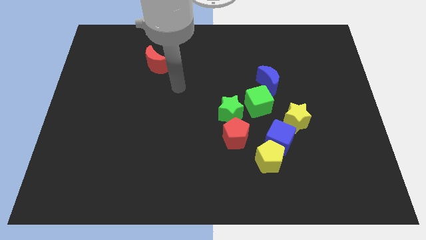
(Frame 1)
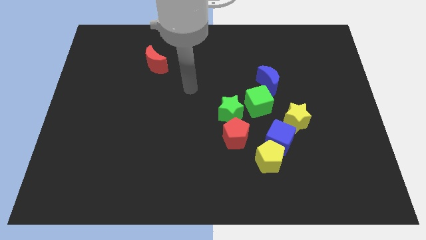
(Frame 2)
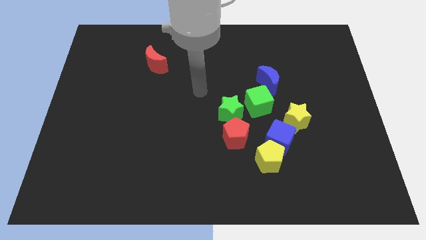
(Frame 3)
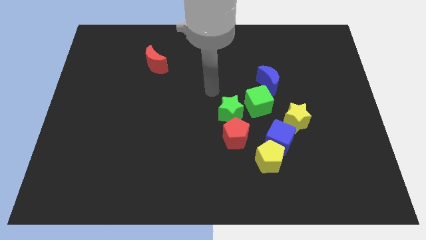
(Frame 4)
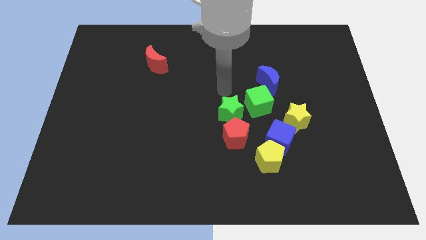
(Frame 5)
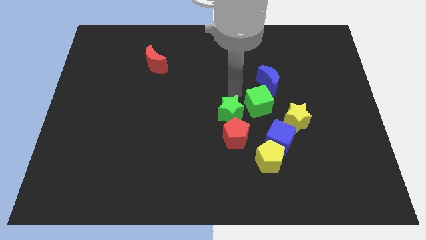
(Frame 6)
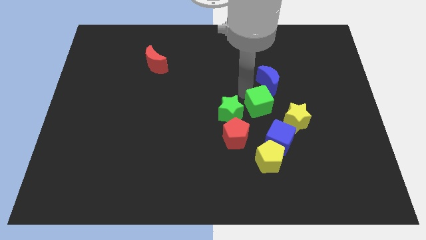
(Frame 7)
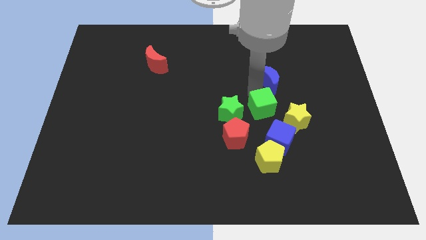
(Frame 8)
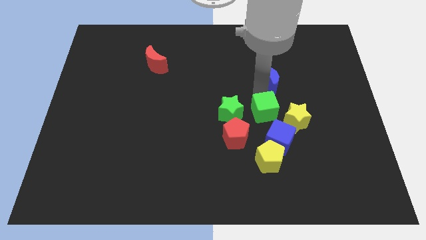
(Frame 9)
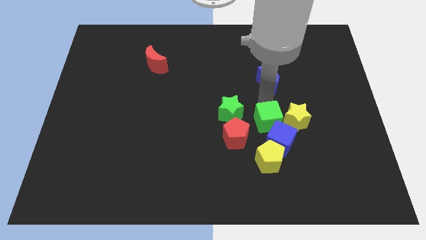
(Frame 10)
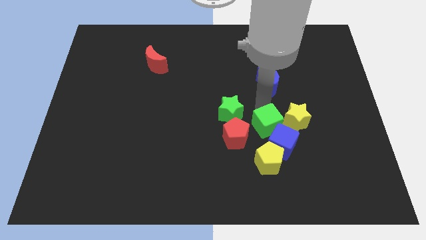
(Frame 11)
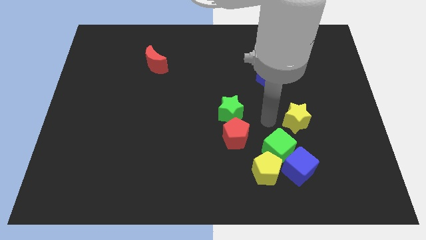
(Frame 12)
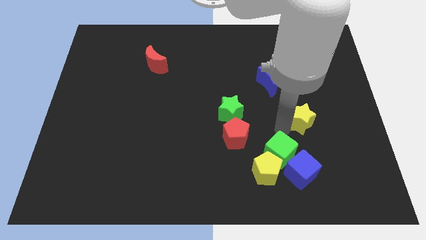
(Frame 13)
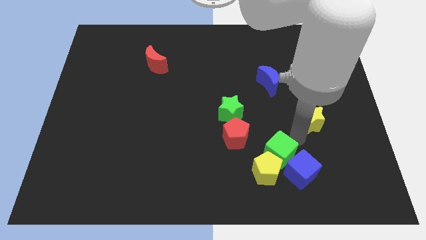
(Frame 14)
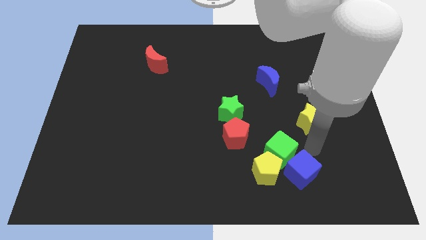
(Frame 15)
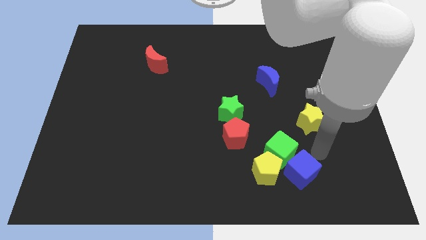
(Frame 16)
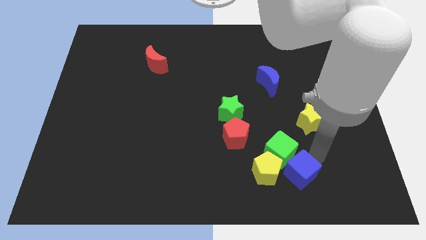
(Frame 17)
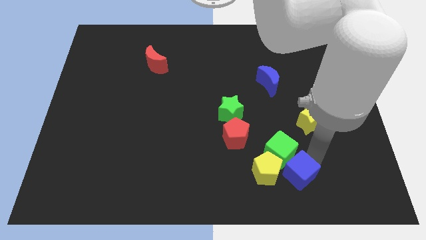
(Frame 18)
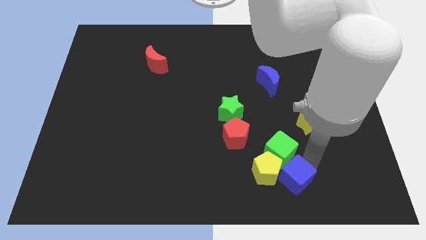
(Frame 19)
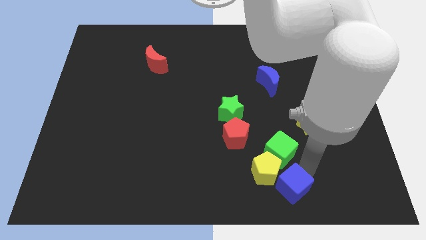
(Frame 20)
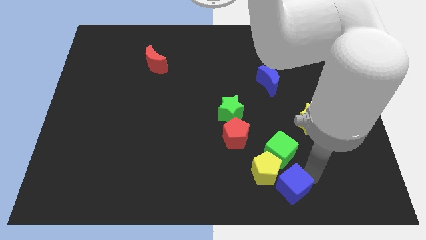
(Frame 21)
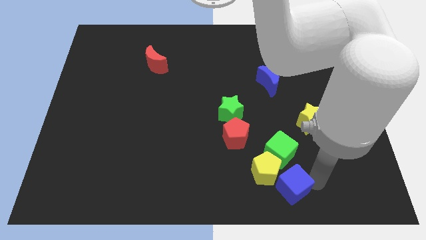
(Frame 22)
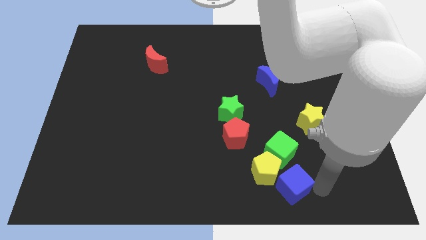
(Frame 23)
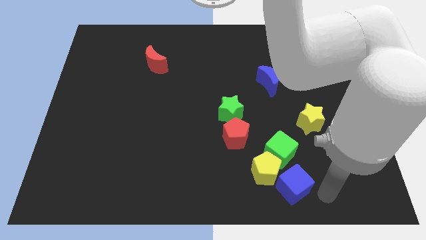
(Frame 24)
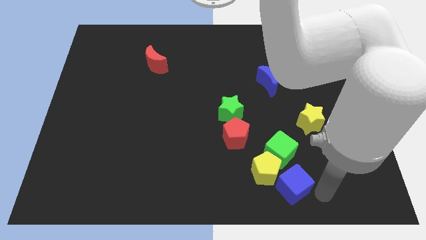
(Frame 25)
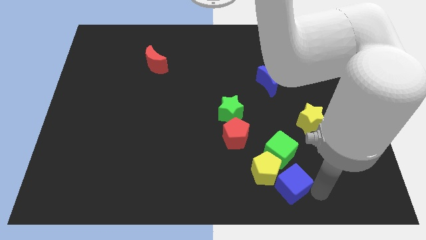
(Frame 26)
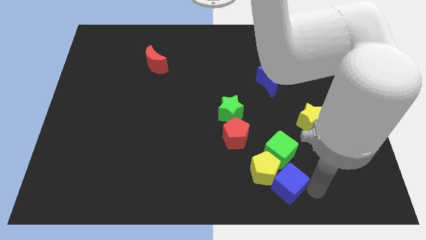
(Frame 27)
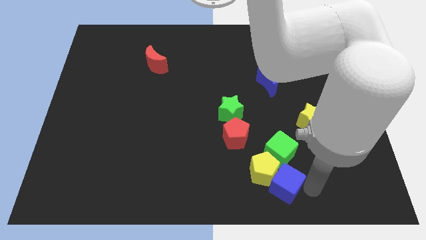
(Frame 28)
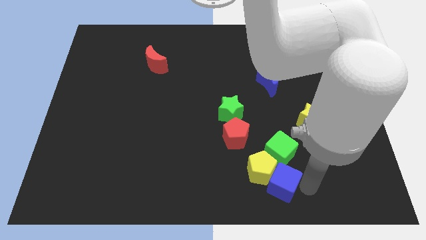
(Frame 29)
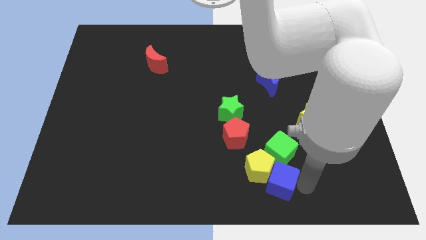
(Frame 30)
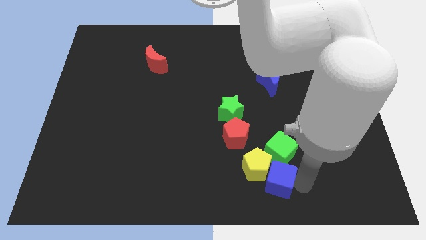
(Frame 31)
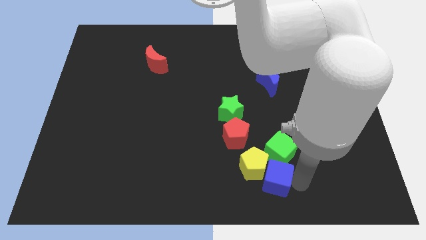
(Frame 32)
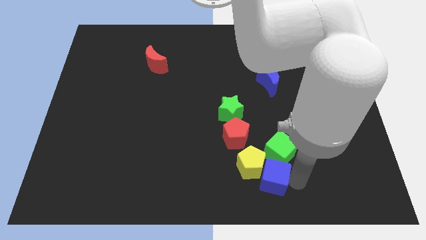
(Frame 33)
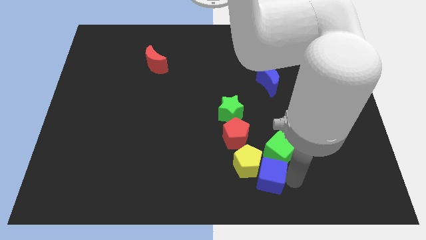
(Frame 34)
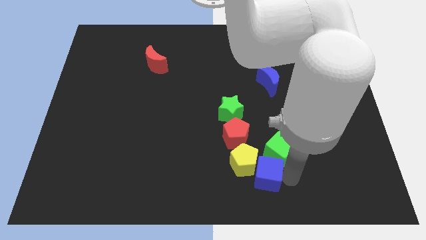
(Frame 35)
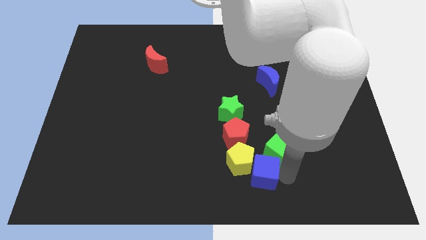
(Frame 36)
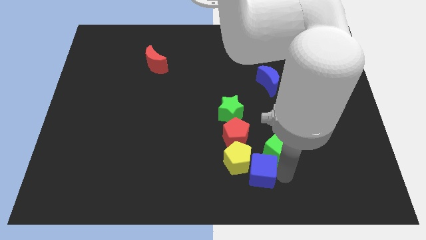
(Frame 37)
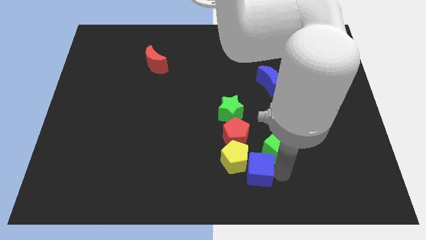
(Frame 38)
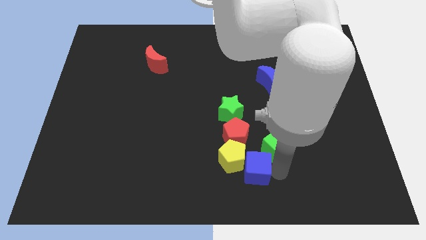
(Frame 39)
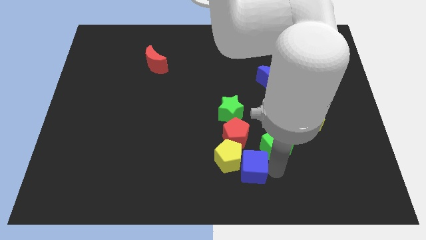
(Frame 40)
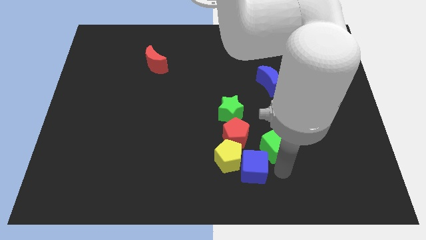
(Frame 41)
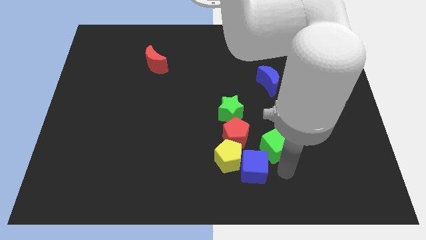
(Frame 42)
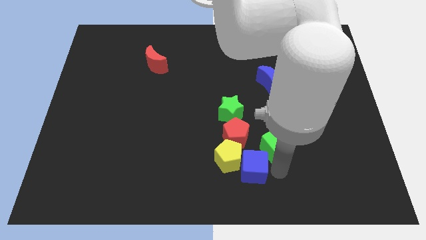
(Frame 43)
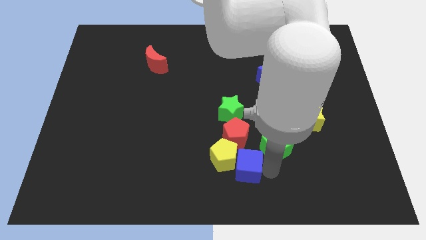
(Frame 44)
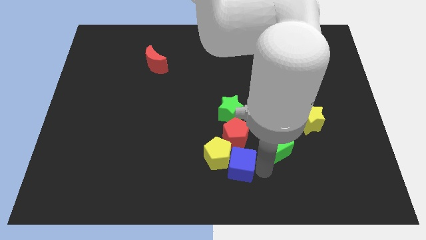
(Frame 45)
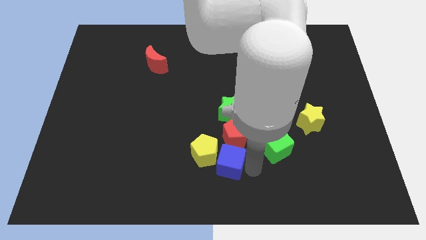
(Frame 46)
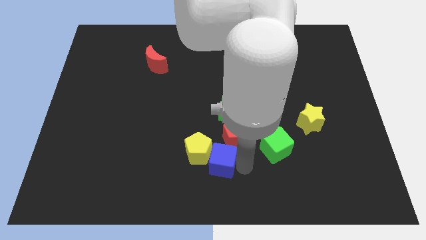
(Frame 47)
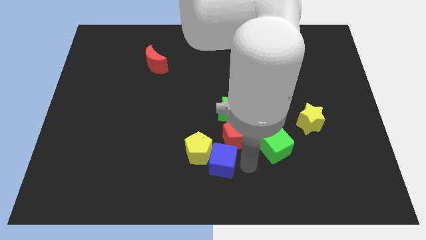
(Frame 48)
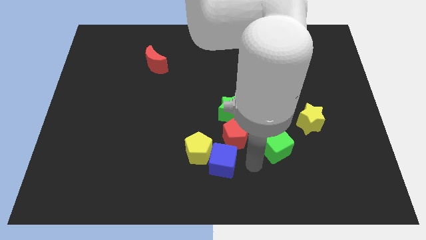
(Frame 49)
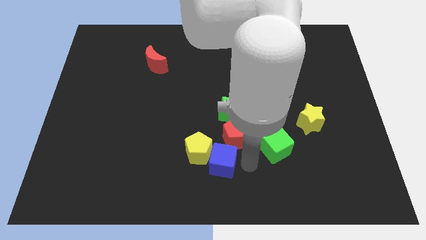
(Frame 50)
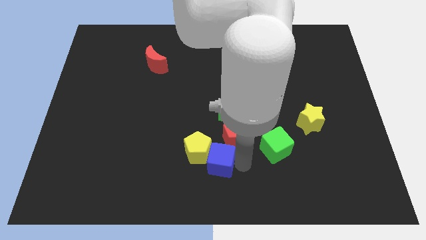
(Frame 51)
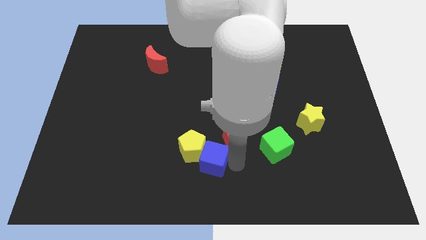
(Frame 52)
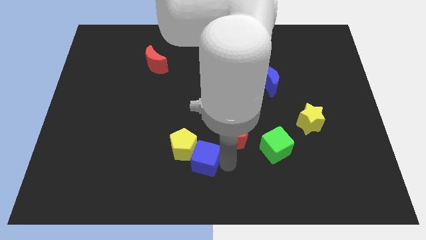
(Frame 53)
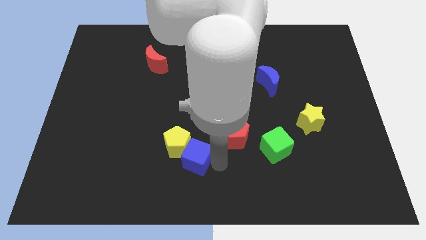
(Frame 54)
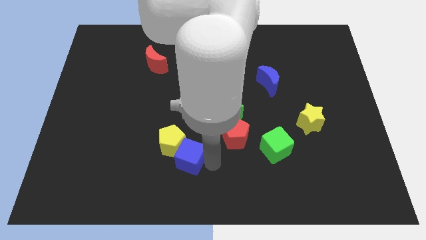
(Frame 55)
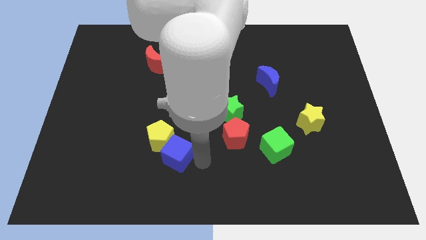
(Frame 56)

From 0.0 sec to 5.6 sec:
move the blue cube to the left

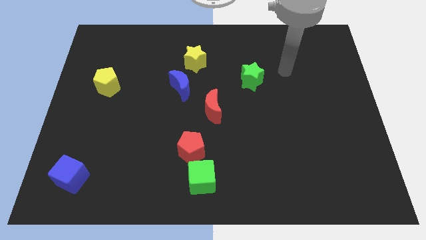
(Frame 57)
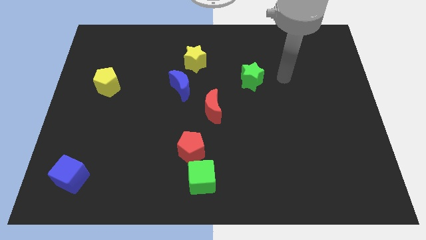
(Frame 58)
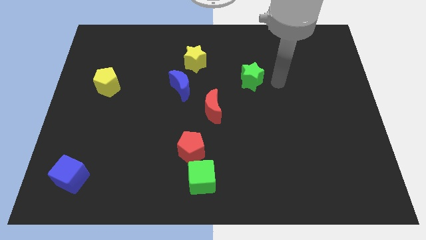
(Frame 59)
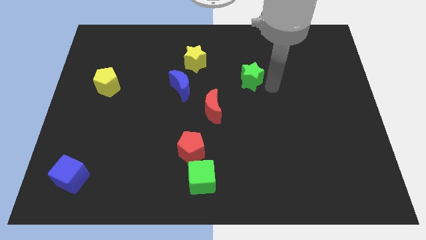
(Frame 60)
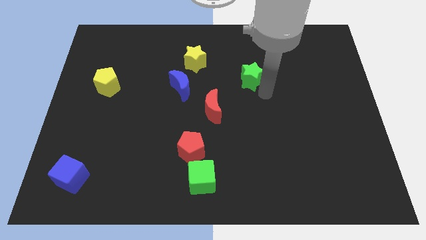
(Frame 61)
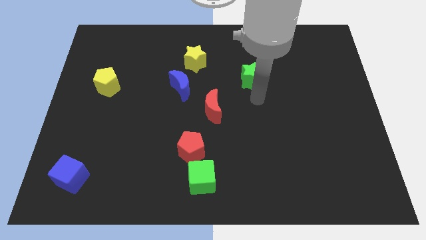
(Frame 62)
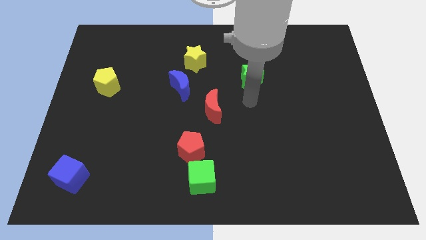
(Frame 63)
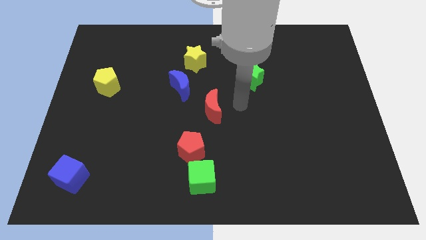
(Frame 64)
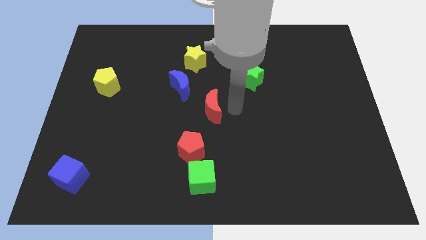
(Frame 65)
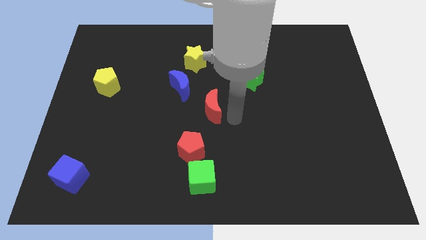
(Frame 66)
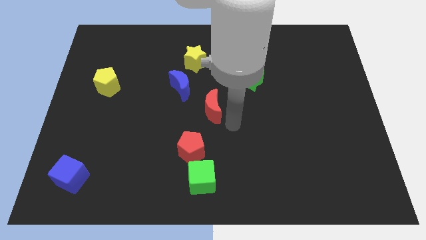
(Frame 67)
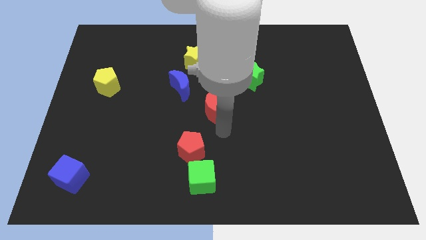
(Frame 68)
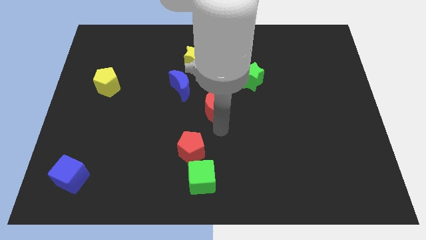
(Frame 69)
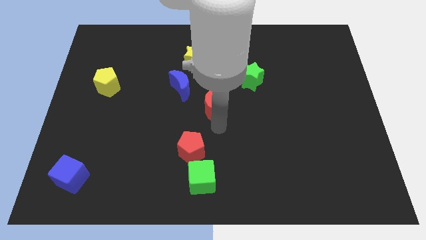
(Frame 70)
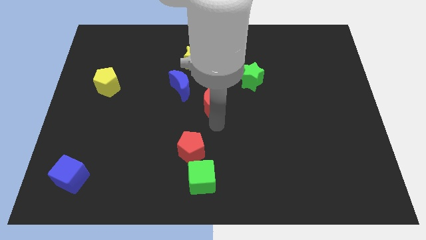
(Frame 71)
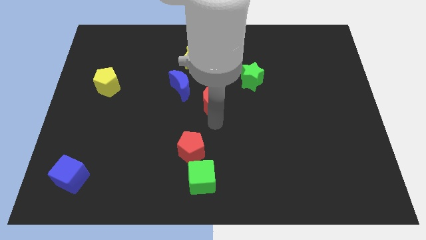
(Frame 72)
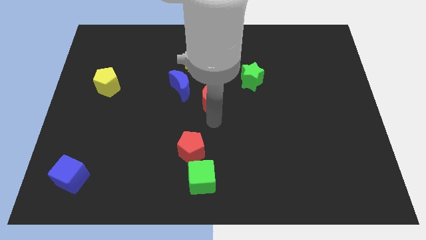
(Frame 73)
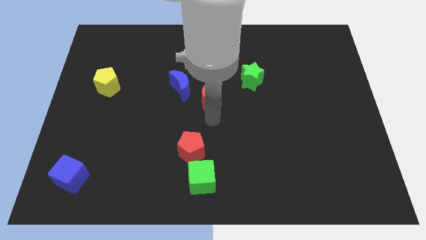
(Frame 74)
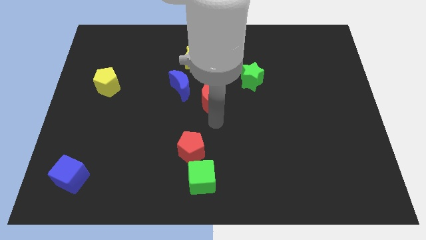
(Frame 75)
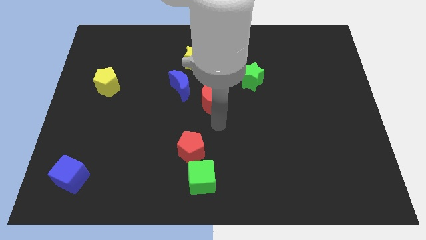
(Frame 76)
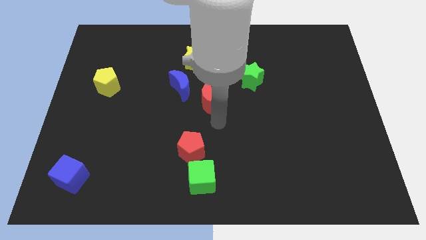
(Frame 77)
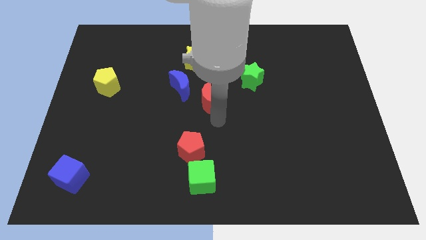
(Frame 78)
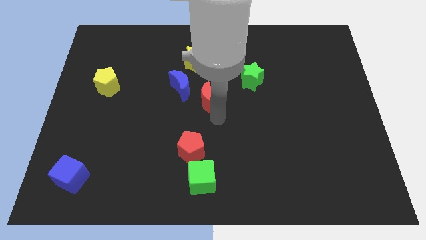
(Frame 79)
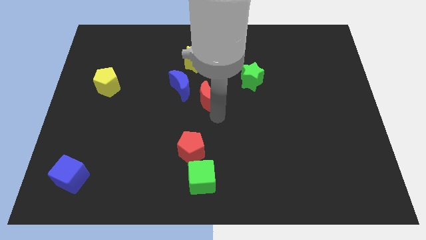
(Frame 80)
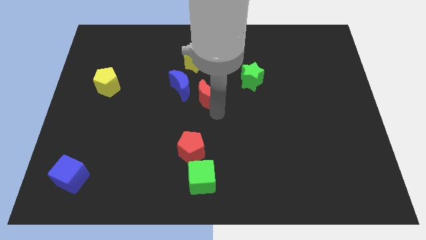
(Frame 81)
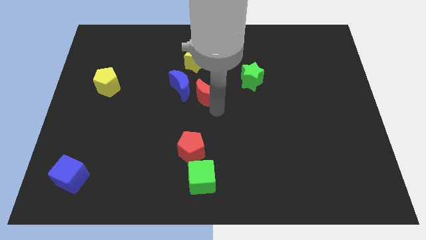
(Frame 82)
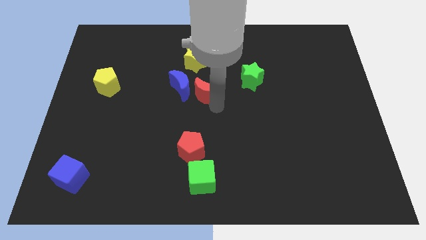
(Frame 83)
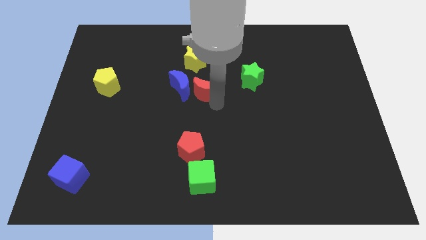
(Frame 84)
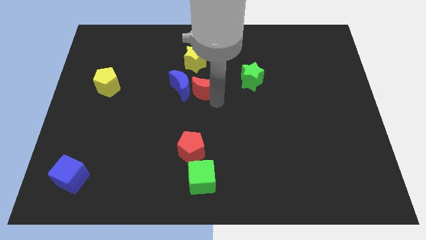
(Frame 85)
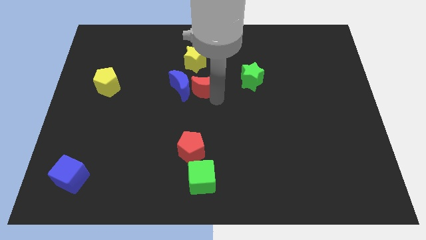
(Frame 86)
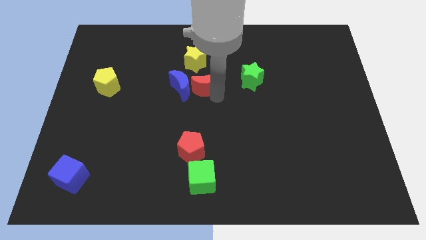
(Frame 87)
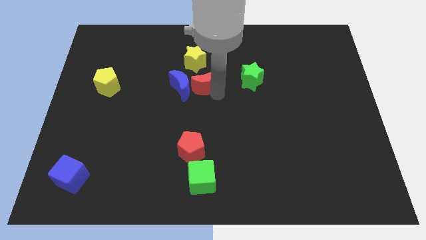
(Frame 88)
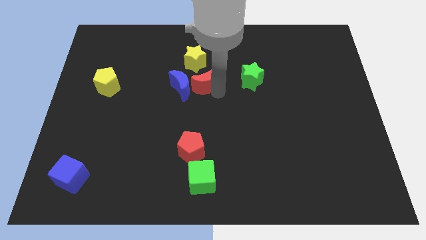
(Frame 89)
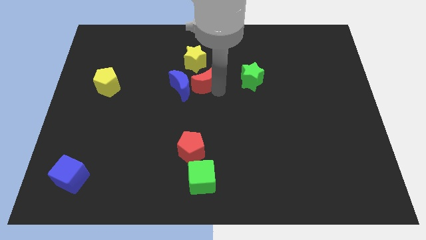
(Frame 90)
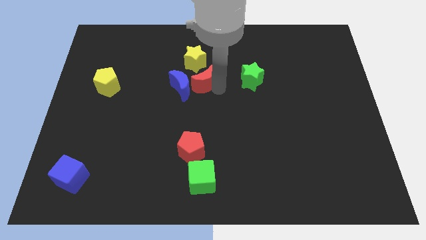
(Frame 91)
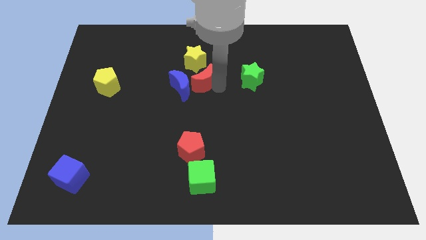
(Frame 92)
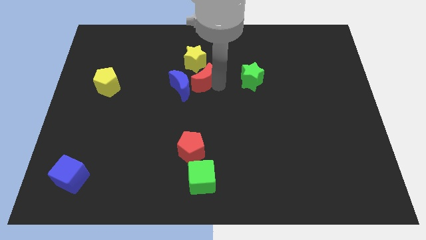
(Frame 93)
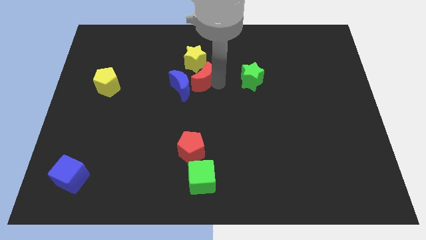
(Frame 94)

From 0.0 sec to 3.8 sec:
slightly slide the red moon upwards and then left
